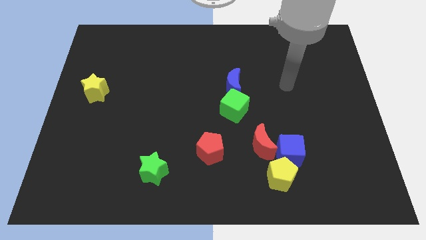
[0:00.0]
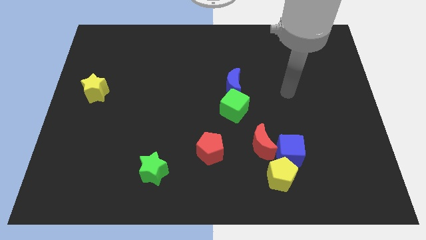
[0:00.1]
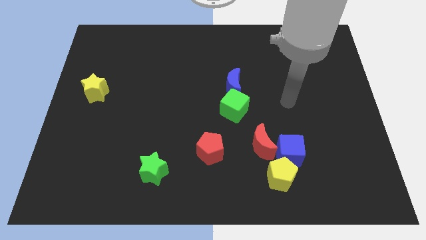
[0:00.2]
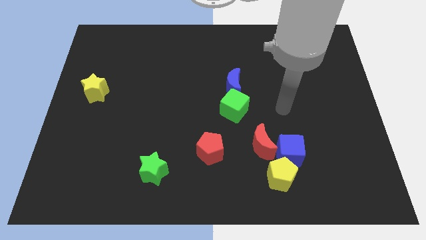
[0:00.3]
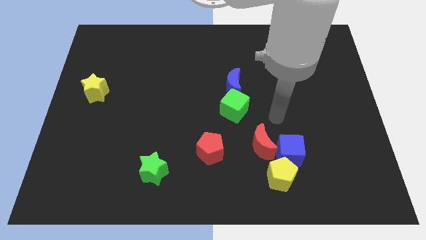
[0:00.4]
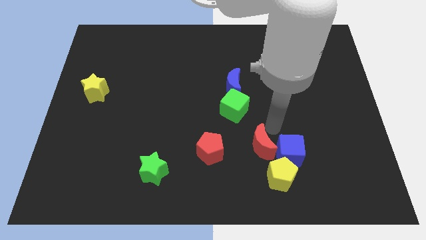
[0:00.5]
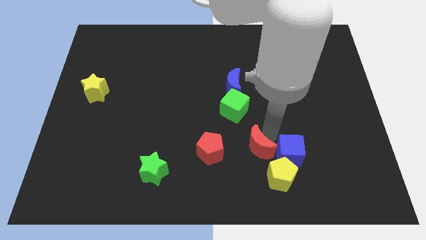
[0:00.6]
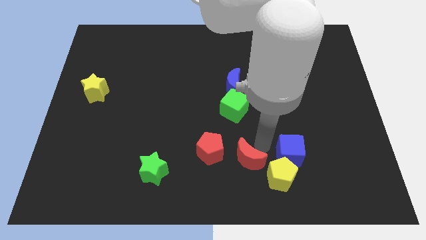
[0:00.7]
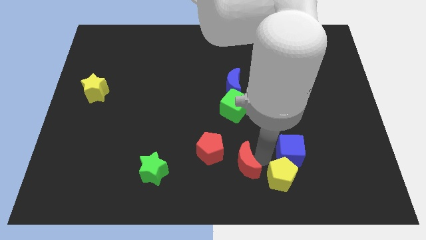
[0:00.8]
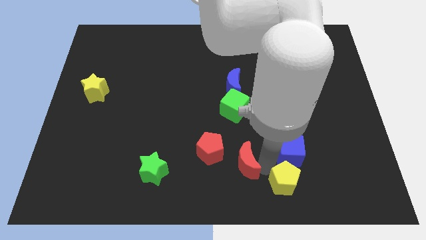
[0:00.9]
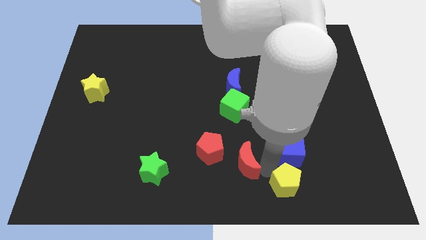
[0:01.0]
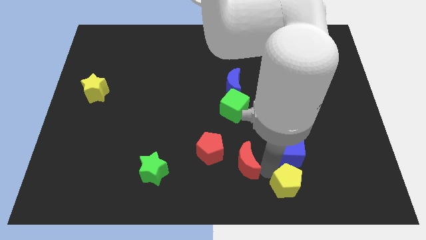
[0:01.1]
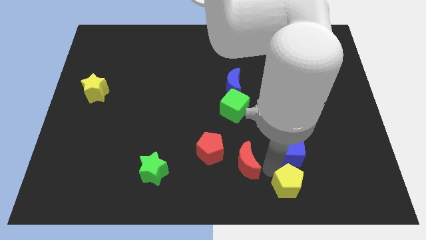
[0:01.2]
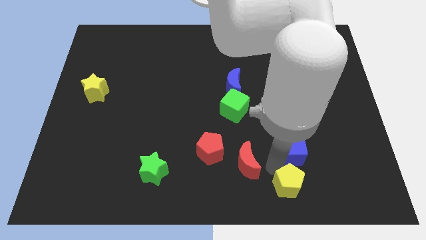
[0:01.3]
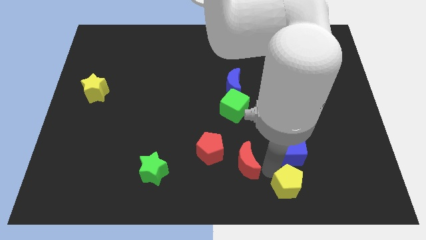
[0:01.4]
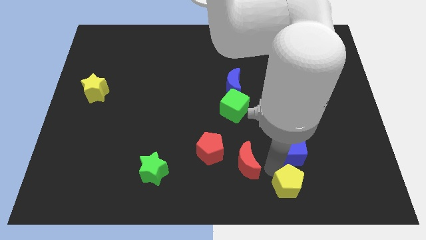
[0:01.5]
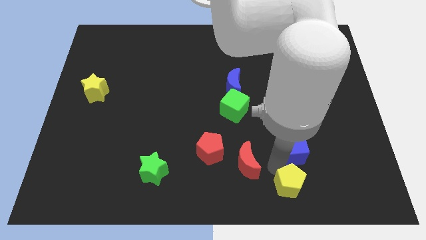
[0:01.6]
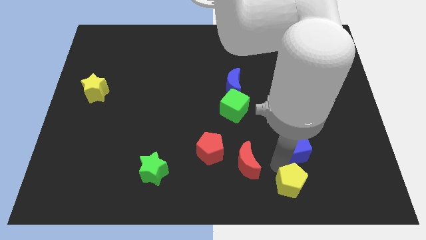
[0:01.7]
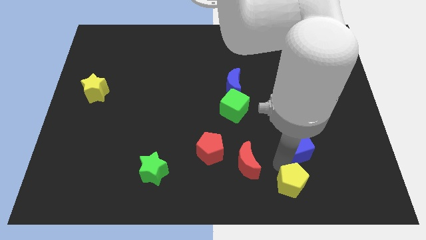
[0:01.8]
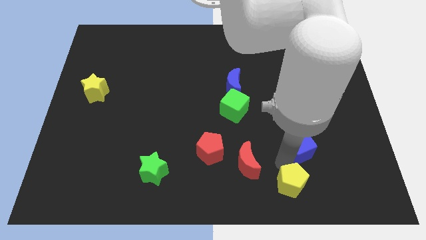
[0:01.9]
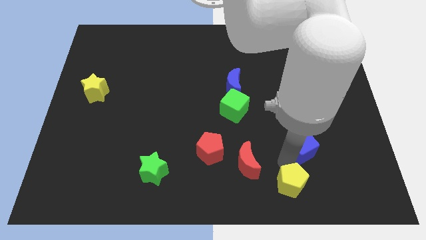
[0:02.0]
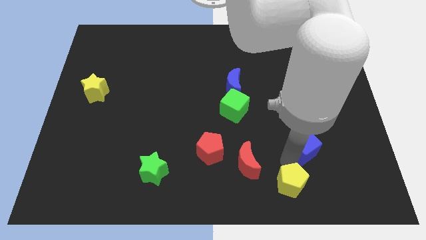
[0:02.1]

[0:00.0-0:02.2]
pull the blue cube apart from the red moon and yellow pentagon

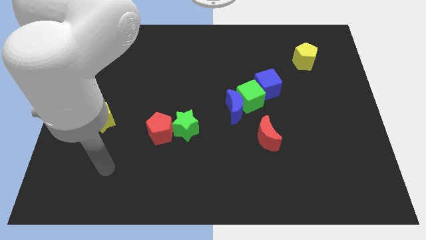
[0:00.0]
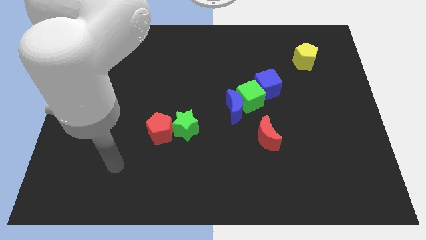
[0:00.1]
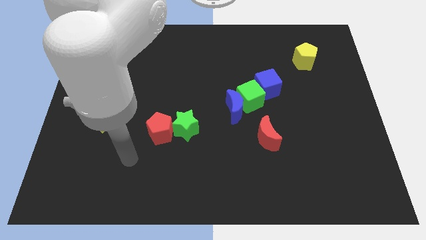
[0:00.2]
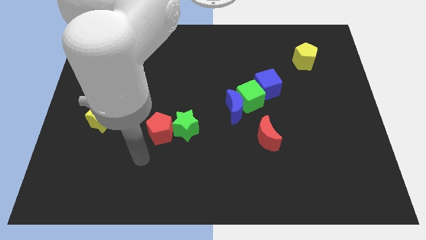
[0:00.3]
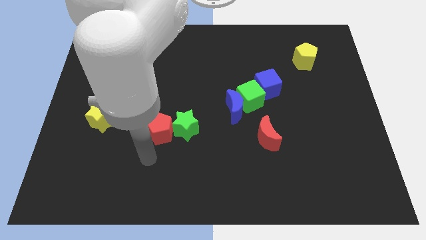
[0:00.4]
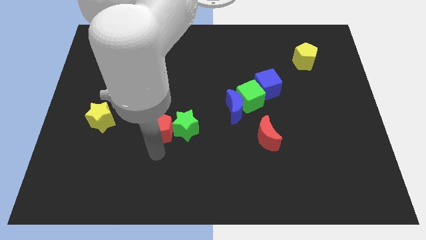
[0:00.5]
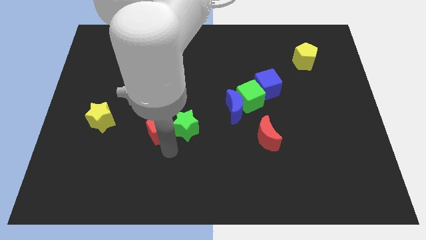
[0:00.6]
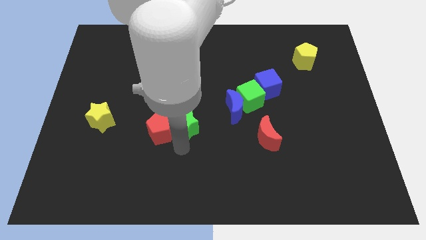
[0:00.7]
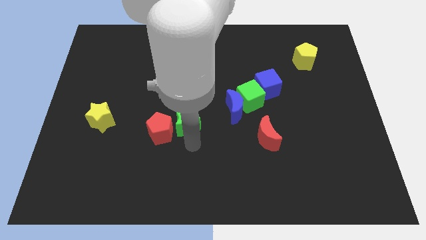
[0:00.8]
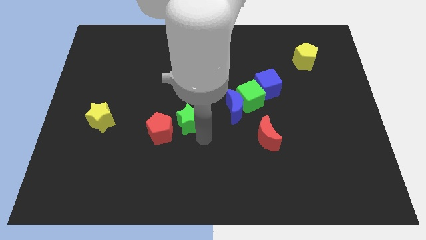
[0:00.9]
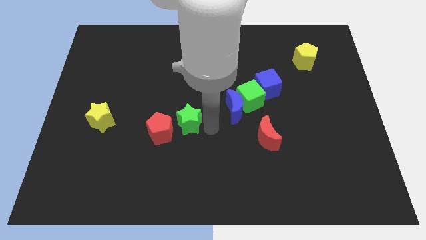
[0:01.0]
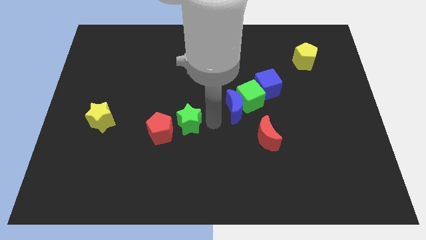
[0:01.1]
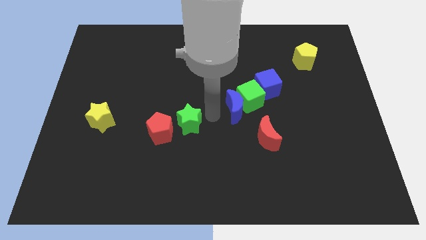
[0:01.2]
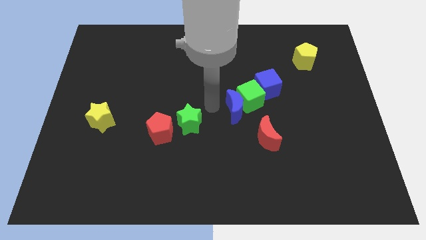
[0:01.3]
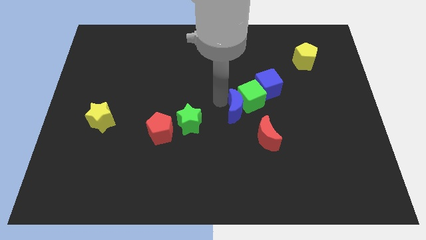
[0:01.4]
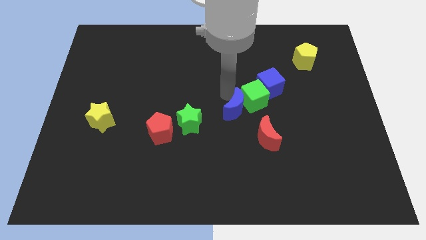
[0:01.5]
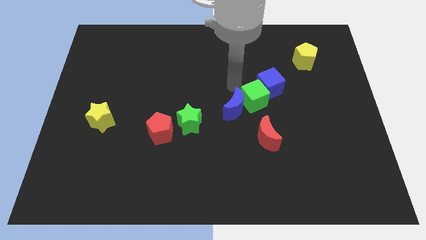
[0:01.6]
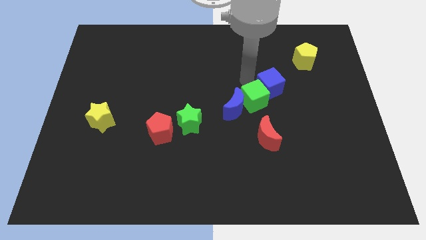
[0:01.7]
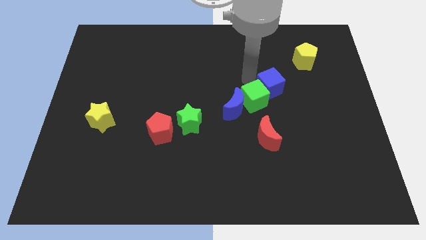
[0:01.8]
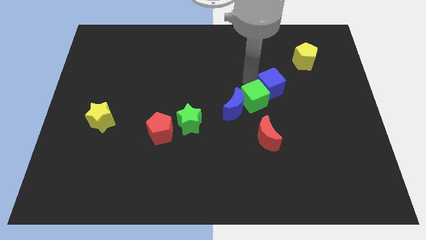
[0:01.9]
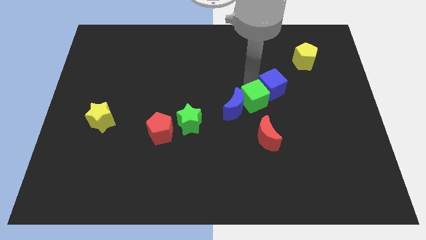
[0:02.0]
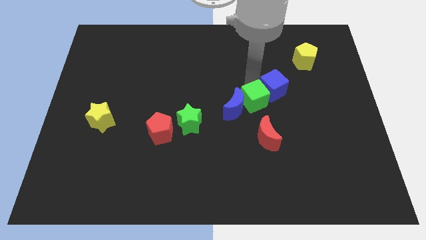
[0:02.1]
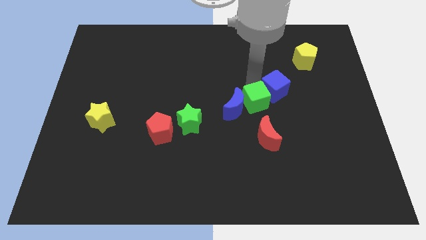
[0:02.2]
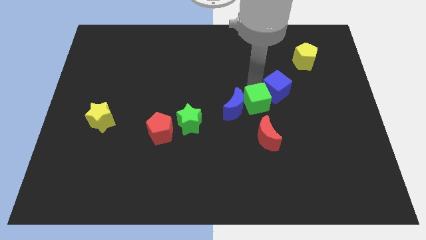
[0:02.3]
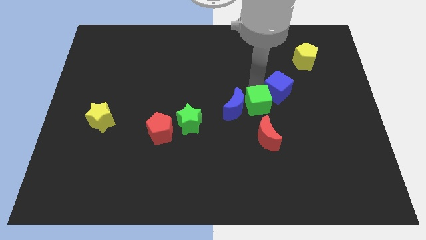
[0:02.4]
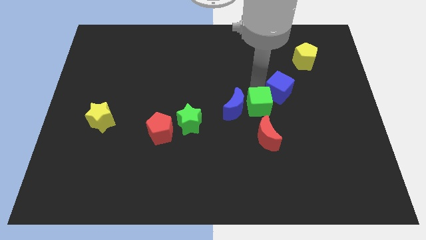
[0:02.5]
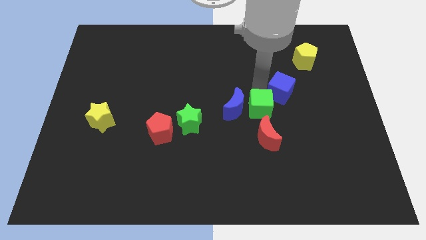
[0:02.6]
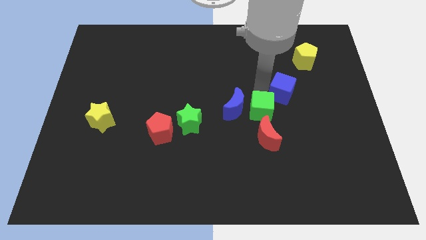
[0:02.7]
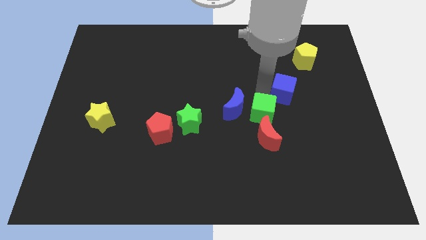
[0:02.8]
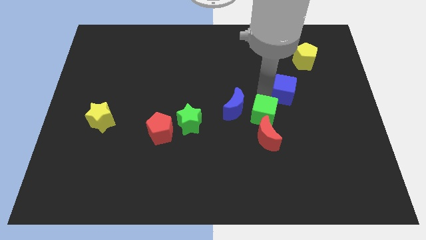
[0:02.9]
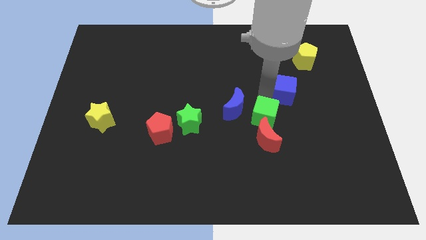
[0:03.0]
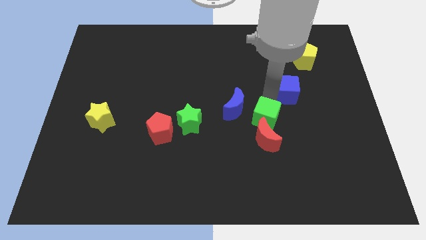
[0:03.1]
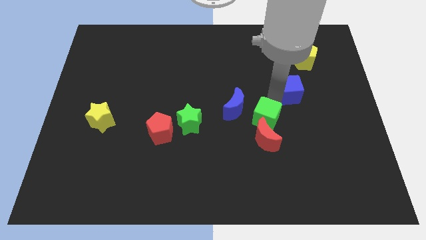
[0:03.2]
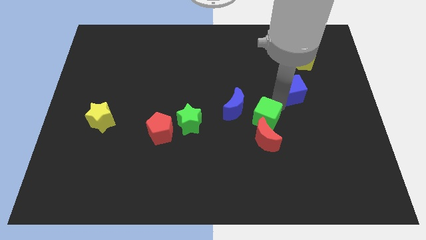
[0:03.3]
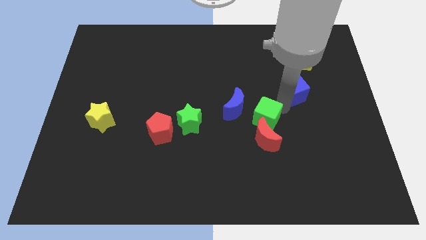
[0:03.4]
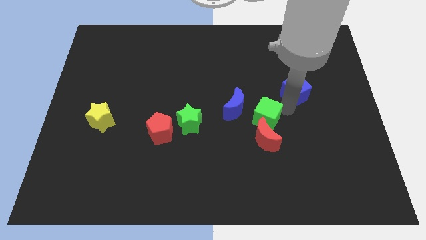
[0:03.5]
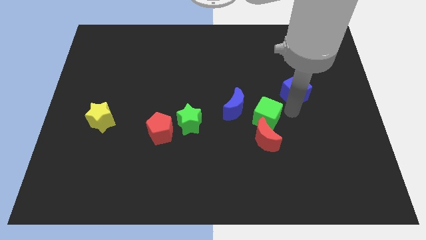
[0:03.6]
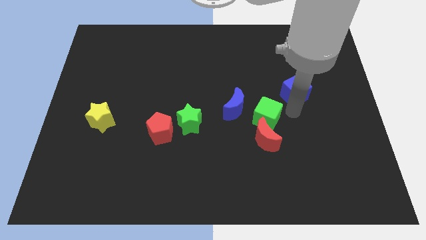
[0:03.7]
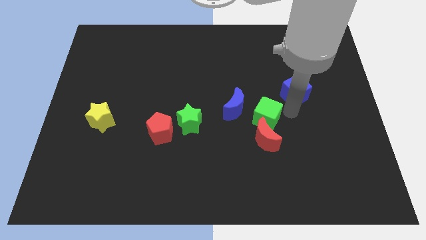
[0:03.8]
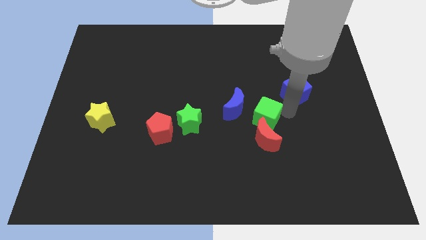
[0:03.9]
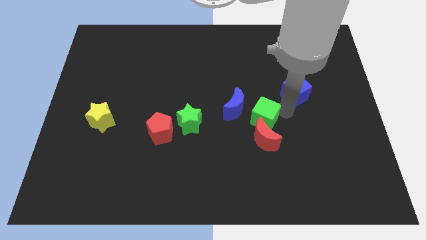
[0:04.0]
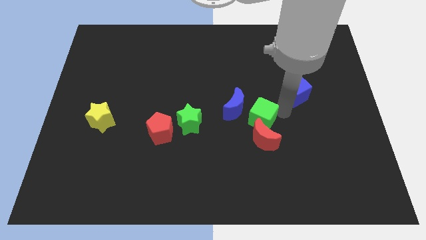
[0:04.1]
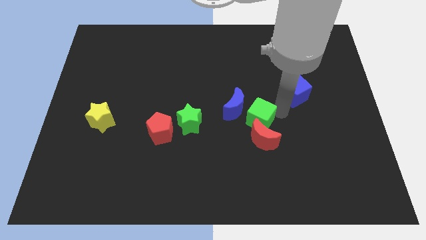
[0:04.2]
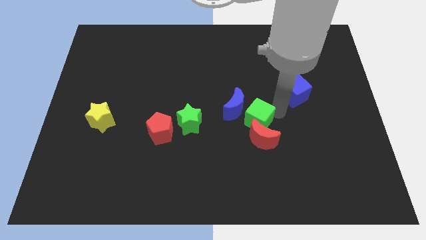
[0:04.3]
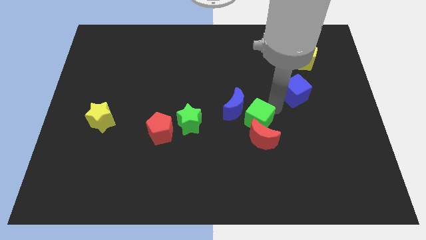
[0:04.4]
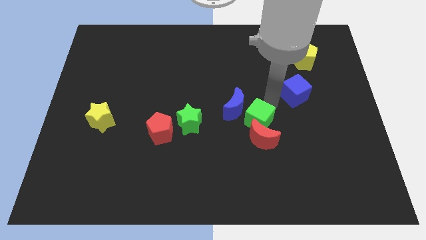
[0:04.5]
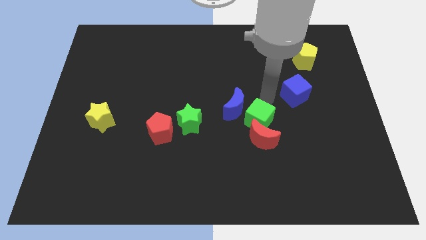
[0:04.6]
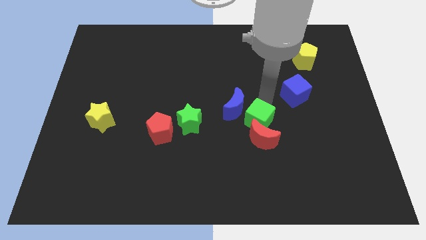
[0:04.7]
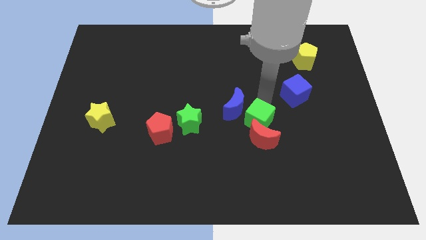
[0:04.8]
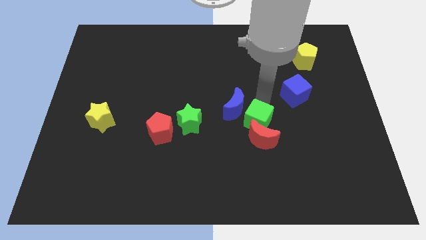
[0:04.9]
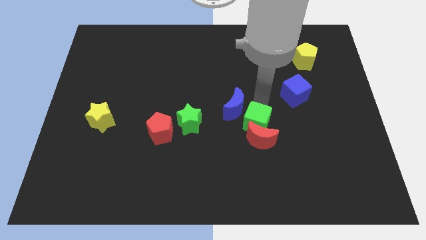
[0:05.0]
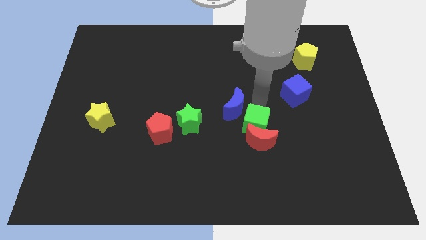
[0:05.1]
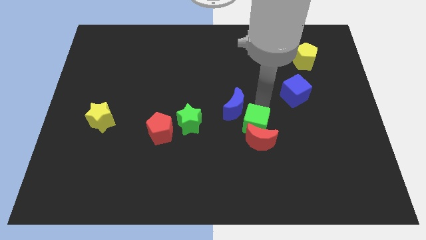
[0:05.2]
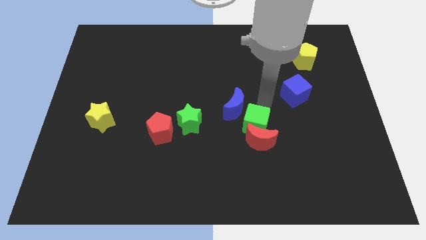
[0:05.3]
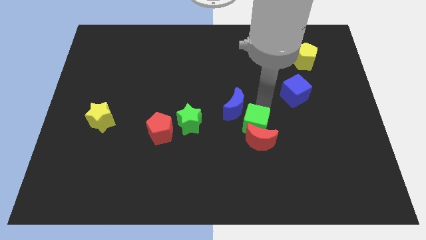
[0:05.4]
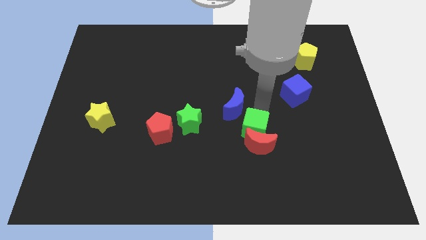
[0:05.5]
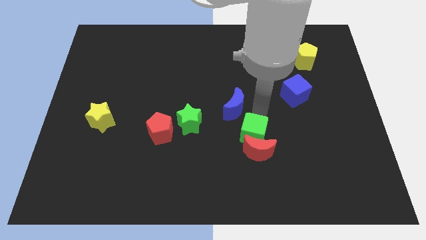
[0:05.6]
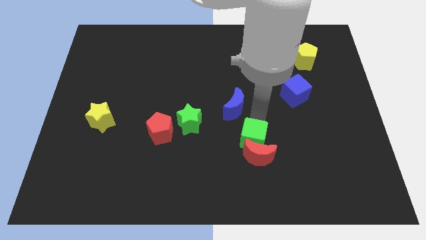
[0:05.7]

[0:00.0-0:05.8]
separate the green cube from the blue moon and blue cube

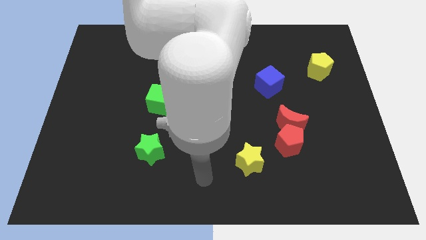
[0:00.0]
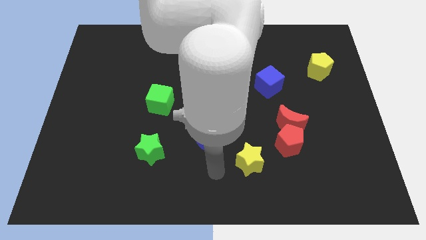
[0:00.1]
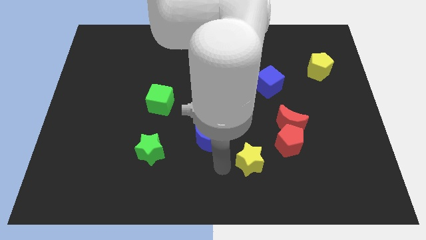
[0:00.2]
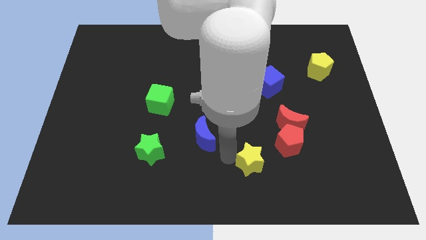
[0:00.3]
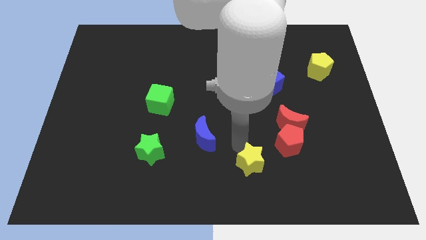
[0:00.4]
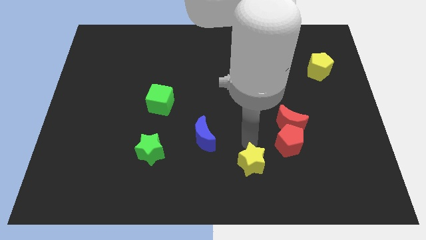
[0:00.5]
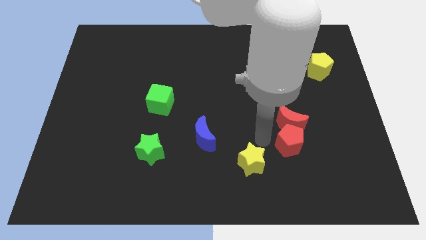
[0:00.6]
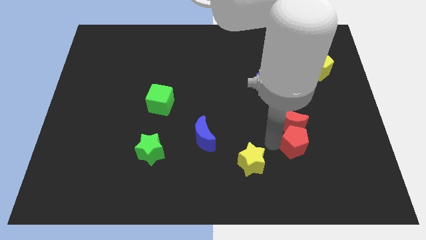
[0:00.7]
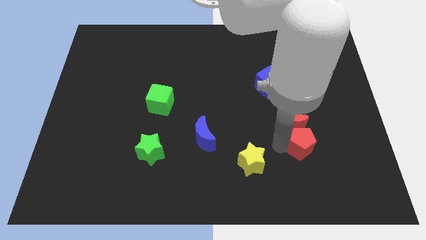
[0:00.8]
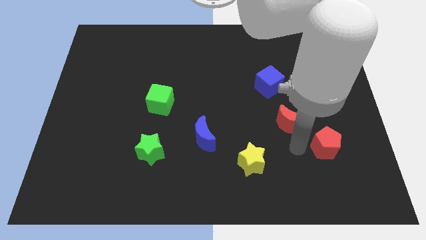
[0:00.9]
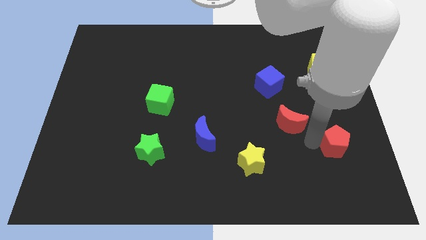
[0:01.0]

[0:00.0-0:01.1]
pull the red moon apart from the red pentagon

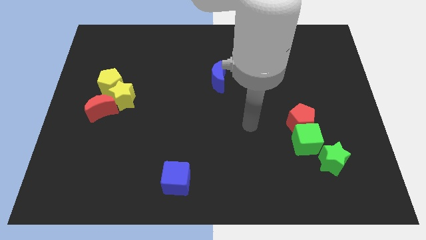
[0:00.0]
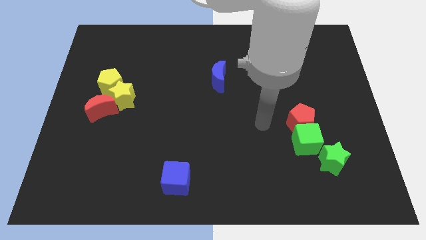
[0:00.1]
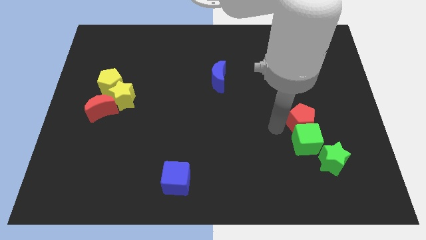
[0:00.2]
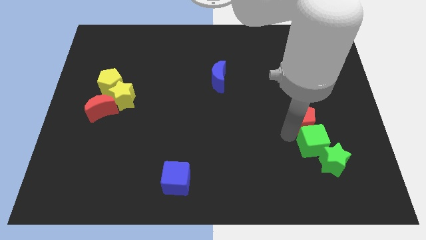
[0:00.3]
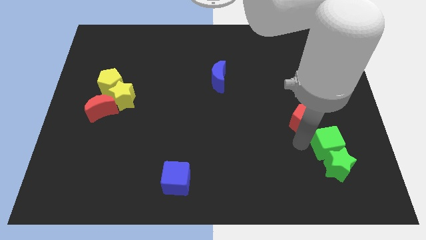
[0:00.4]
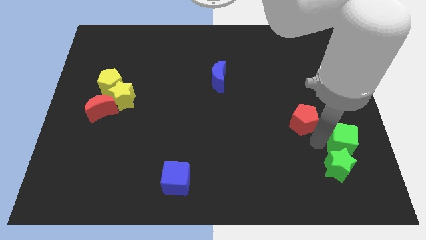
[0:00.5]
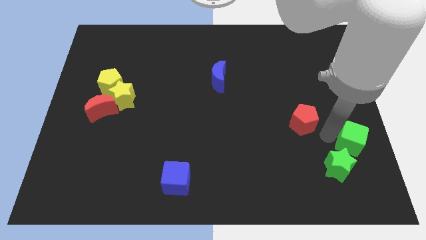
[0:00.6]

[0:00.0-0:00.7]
separate the red pentagon from the green cube
